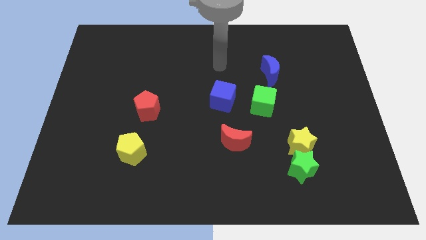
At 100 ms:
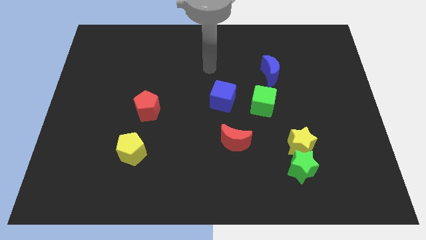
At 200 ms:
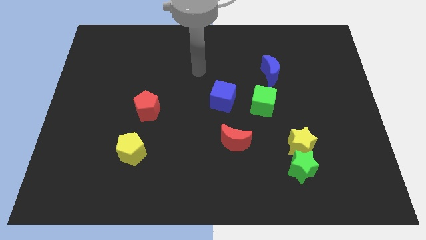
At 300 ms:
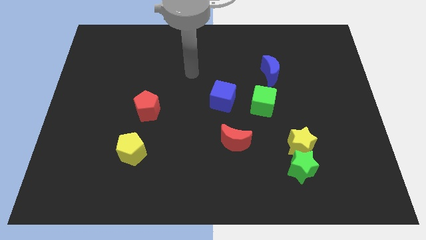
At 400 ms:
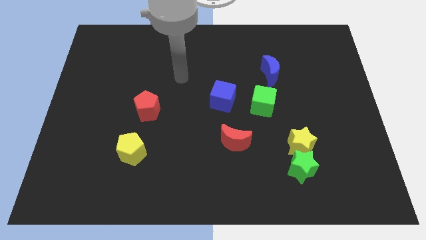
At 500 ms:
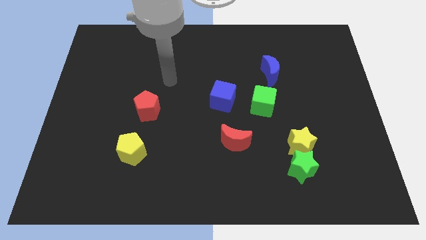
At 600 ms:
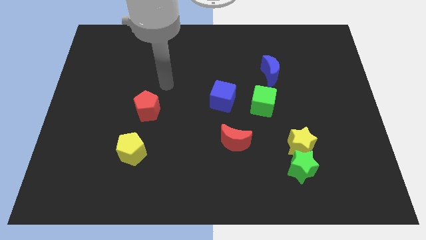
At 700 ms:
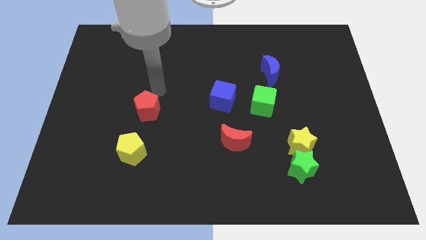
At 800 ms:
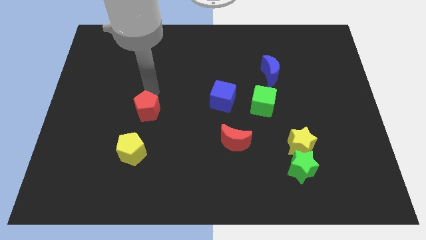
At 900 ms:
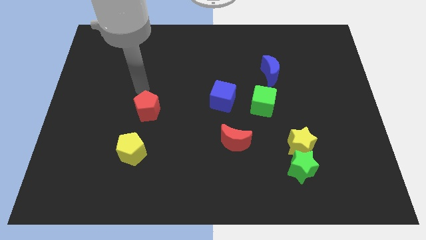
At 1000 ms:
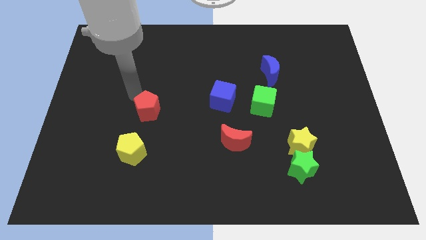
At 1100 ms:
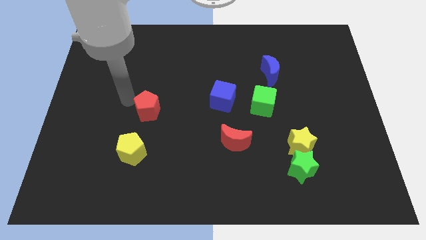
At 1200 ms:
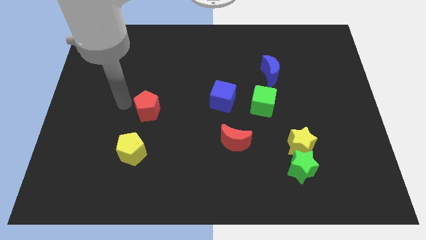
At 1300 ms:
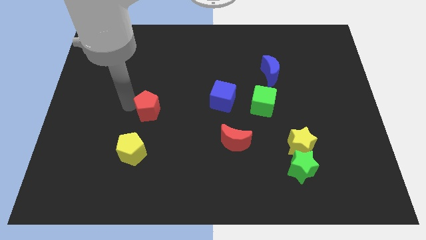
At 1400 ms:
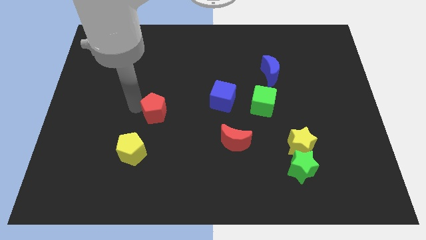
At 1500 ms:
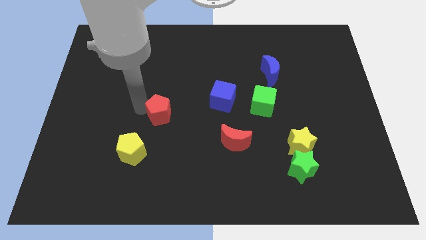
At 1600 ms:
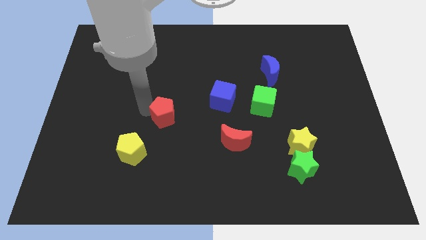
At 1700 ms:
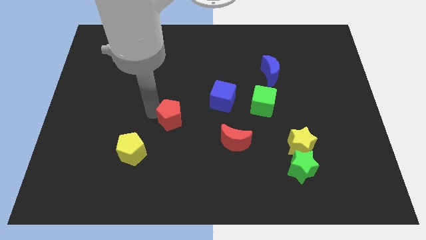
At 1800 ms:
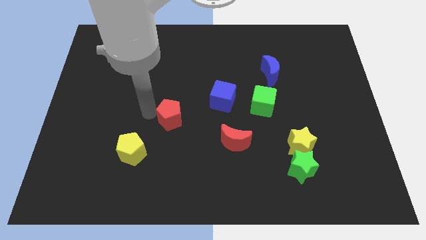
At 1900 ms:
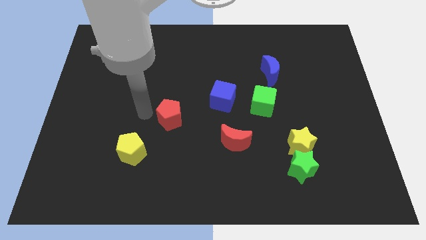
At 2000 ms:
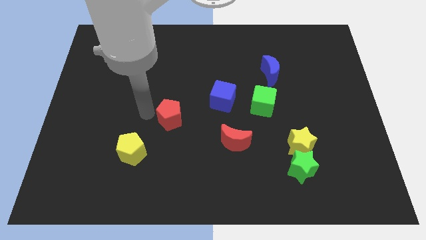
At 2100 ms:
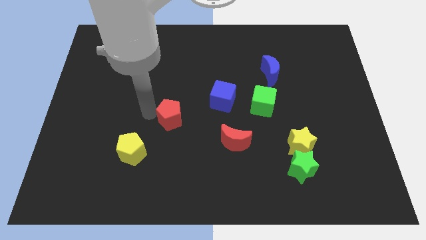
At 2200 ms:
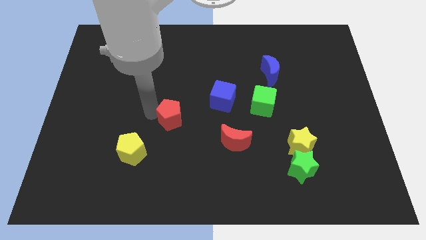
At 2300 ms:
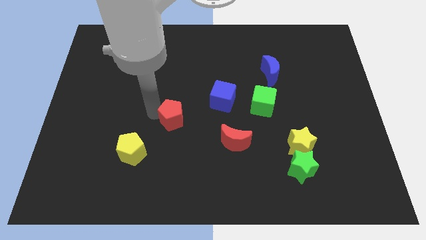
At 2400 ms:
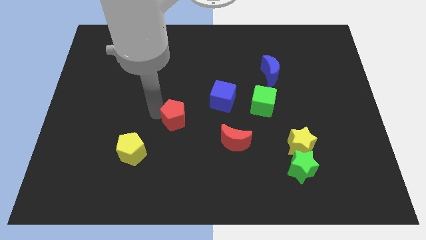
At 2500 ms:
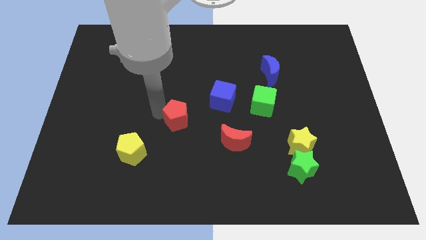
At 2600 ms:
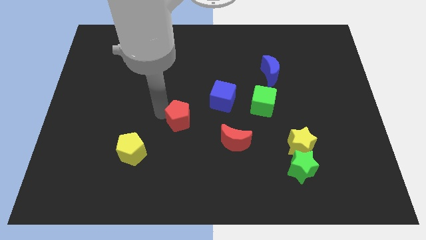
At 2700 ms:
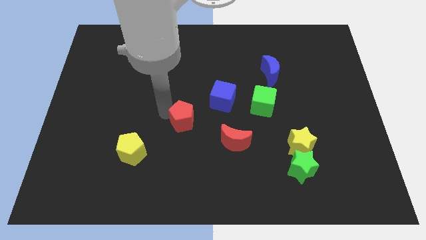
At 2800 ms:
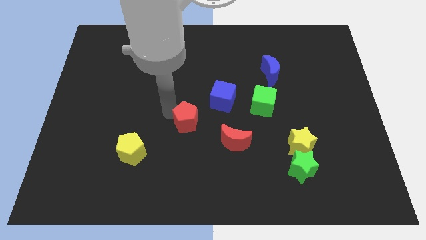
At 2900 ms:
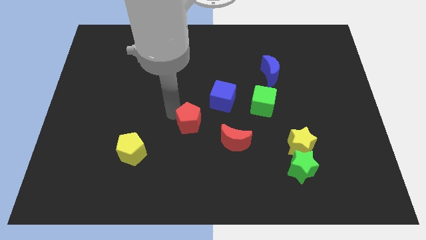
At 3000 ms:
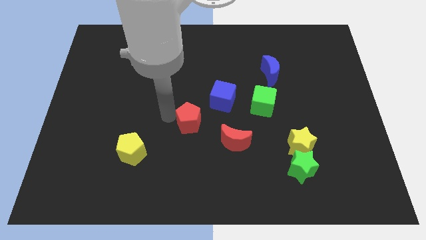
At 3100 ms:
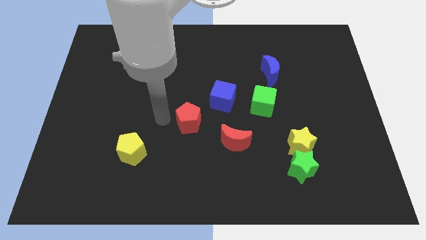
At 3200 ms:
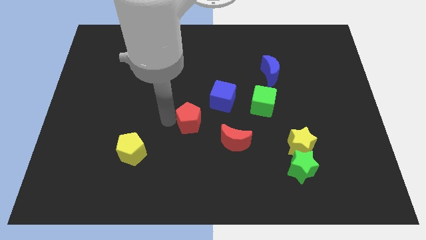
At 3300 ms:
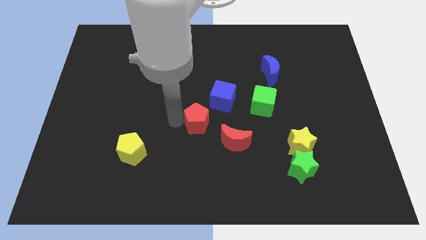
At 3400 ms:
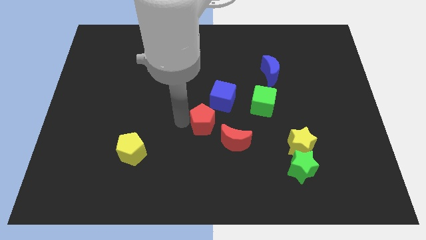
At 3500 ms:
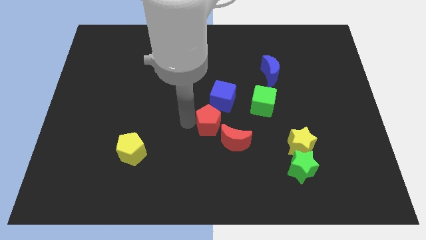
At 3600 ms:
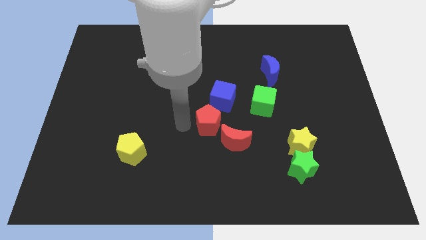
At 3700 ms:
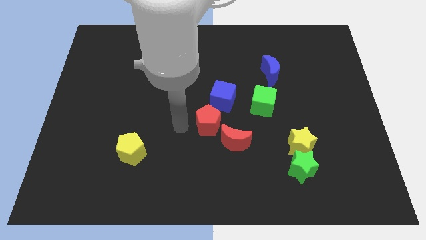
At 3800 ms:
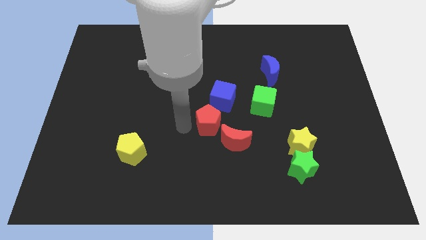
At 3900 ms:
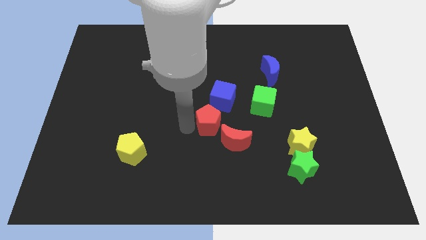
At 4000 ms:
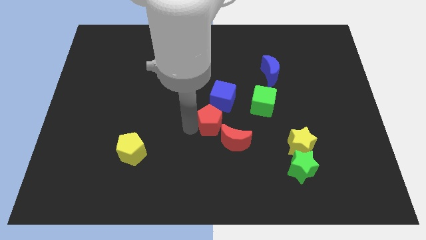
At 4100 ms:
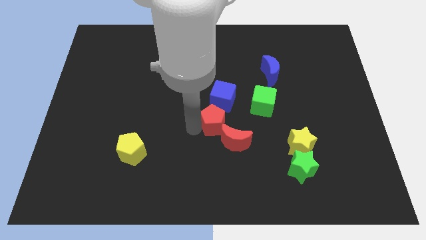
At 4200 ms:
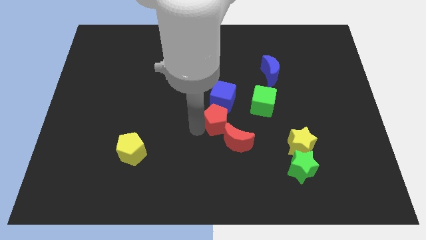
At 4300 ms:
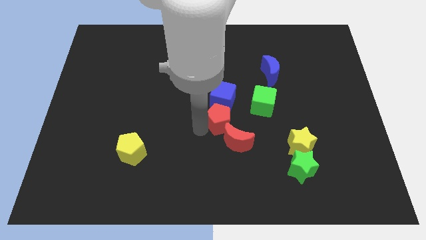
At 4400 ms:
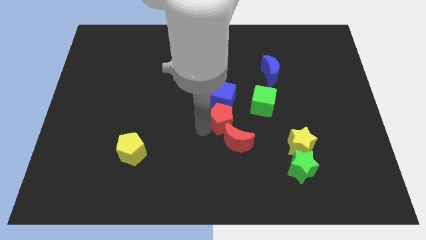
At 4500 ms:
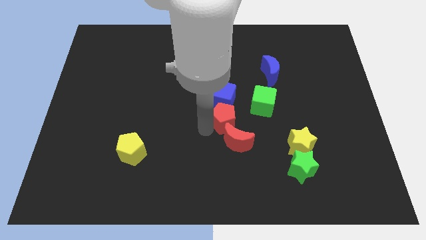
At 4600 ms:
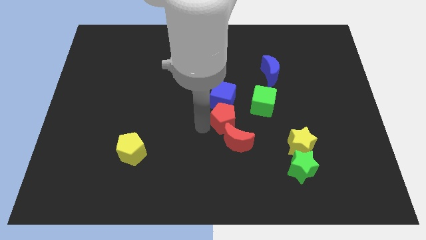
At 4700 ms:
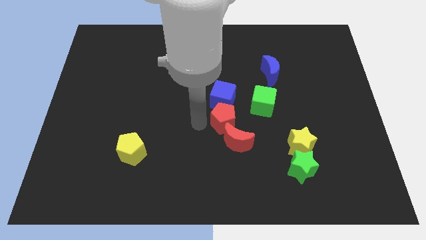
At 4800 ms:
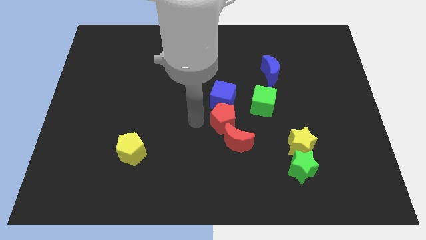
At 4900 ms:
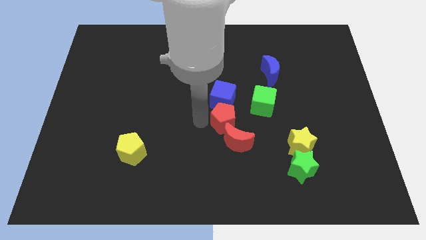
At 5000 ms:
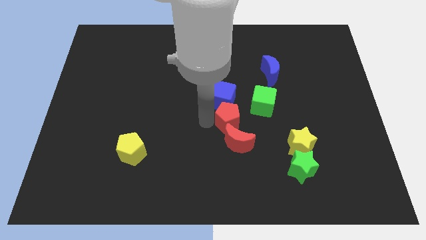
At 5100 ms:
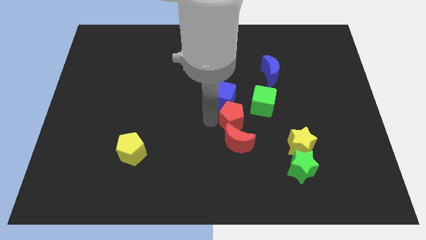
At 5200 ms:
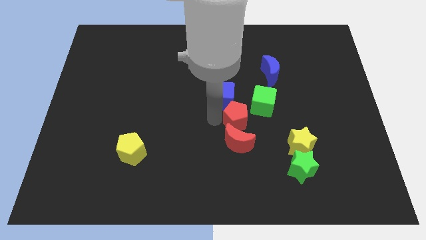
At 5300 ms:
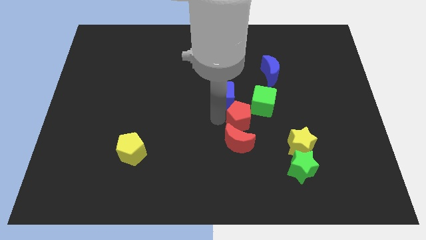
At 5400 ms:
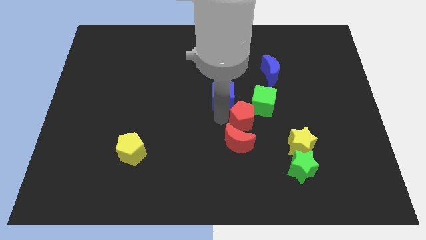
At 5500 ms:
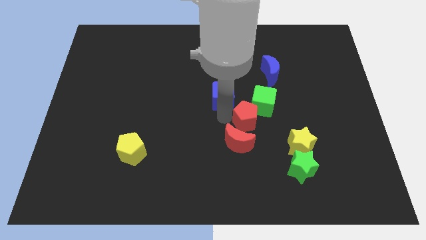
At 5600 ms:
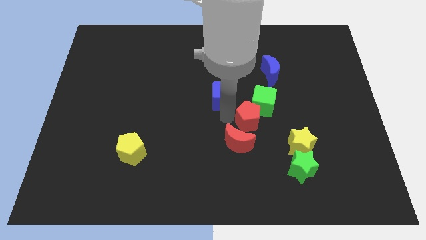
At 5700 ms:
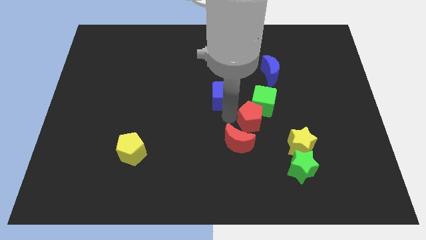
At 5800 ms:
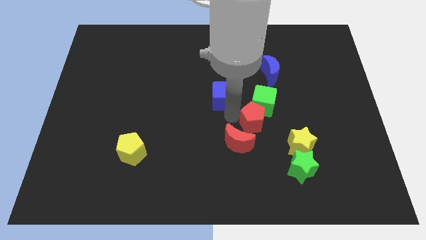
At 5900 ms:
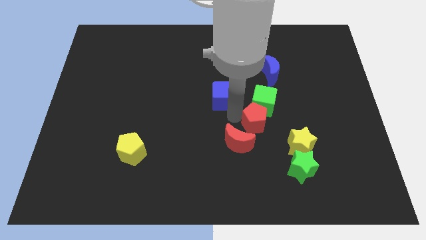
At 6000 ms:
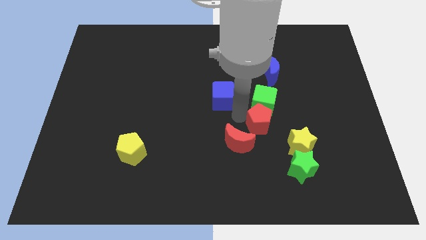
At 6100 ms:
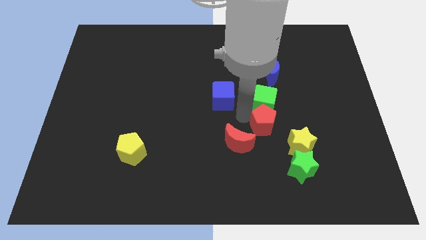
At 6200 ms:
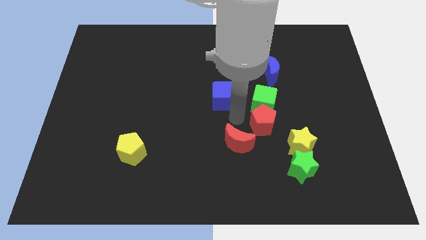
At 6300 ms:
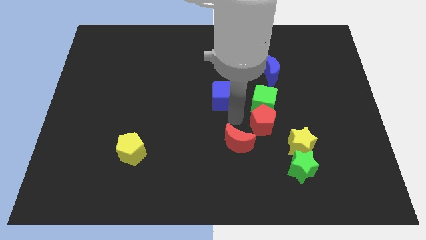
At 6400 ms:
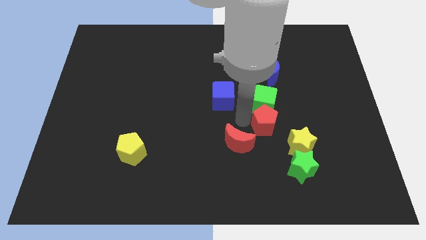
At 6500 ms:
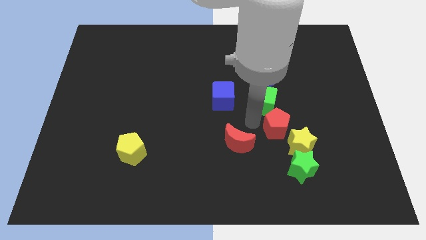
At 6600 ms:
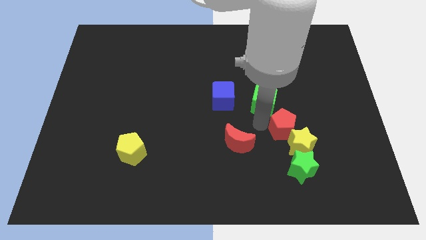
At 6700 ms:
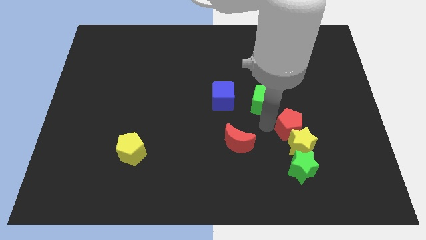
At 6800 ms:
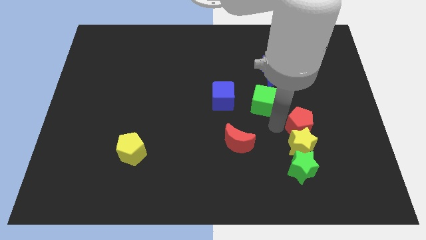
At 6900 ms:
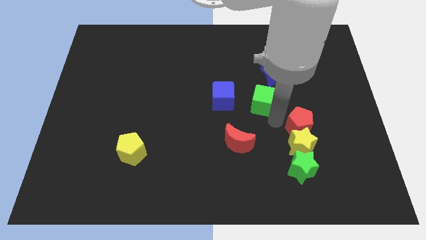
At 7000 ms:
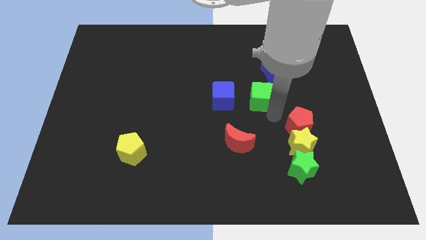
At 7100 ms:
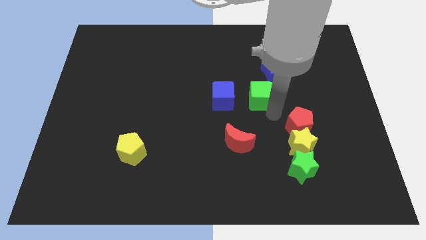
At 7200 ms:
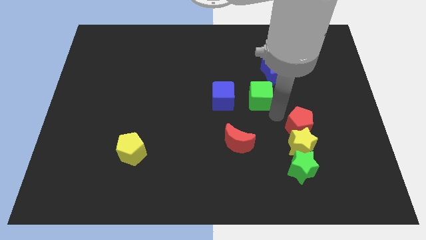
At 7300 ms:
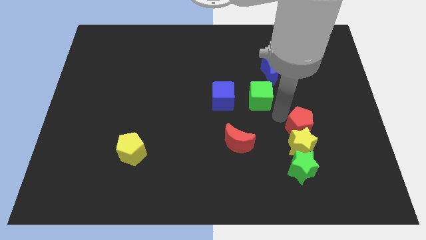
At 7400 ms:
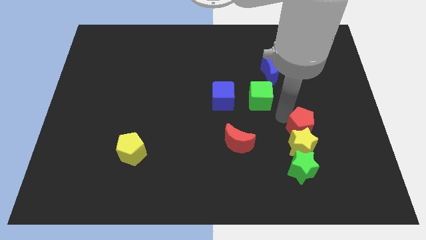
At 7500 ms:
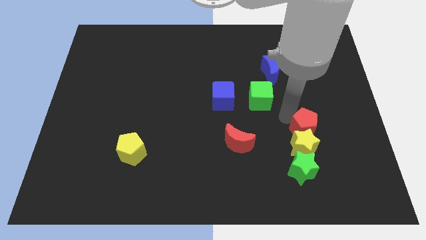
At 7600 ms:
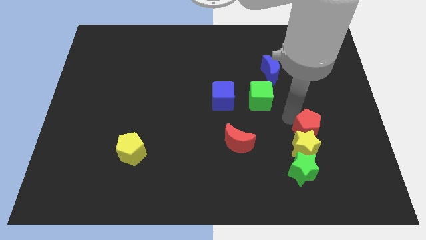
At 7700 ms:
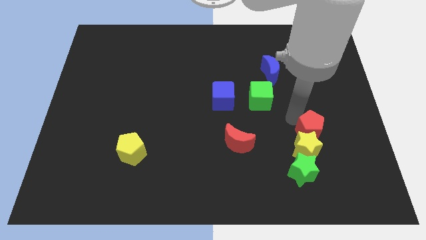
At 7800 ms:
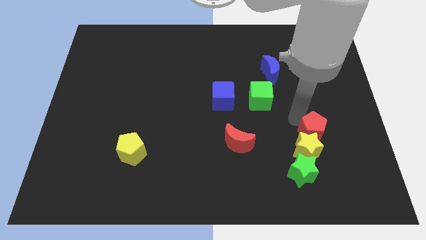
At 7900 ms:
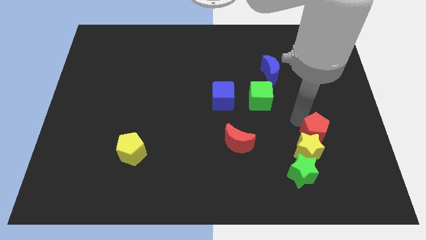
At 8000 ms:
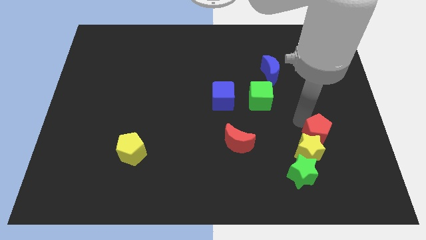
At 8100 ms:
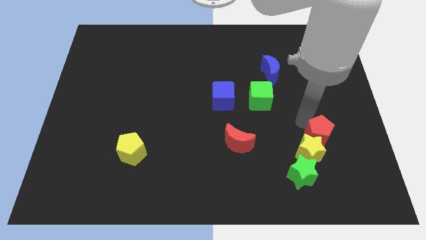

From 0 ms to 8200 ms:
slide the red pentagon to the right side of the yellow star
